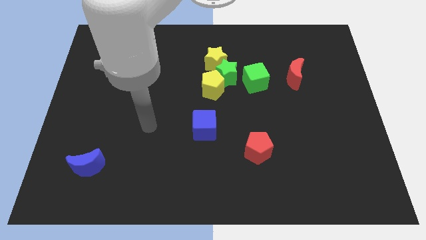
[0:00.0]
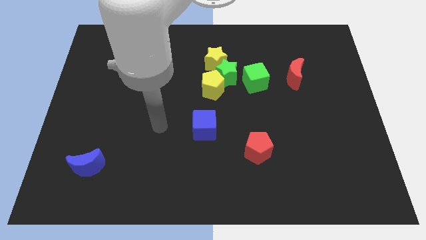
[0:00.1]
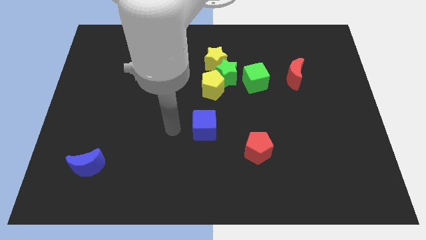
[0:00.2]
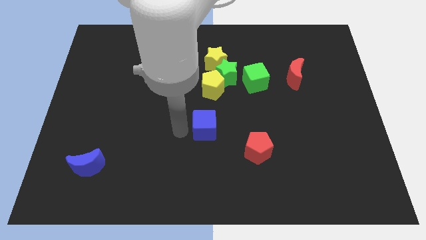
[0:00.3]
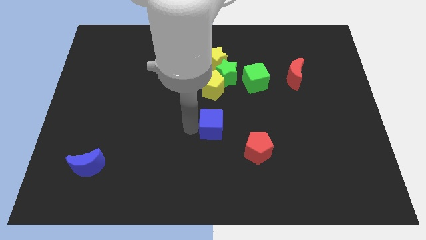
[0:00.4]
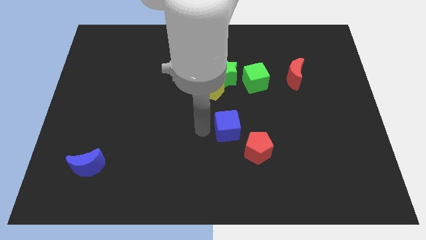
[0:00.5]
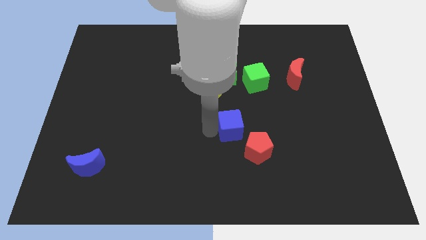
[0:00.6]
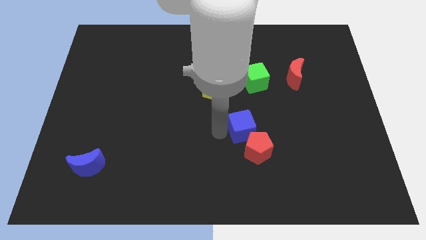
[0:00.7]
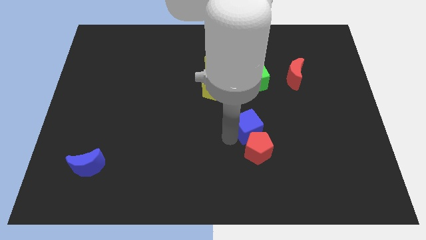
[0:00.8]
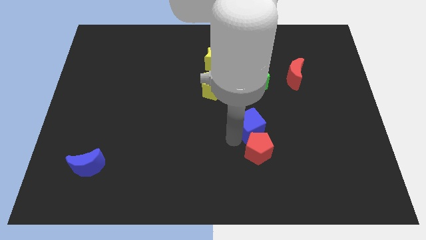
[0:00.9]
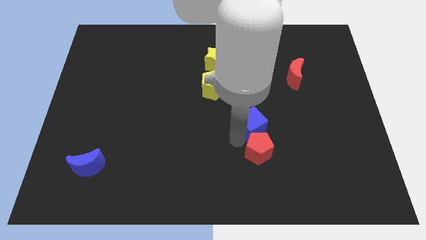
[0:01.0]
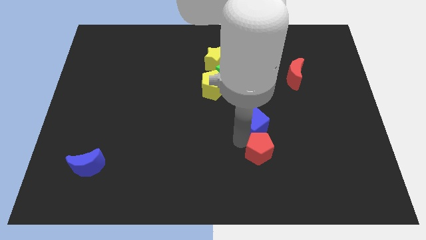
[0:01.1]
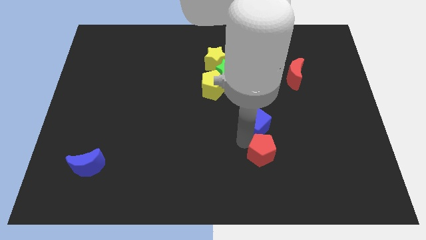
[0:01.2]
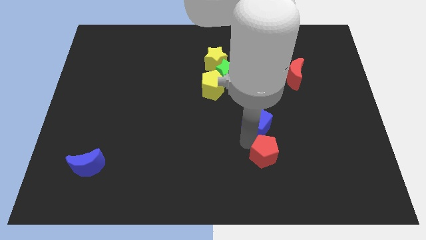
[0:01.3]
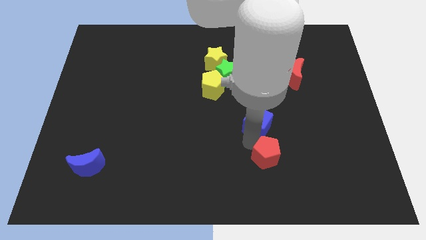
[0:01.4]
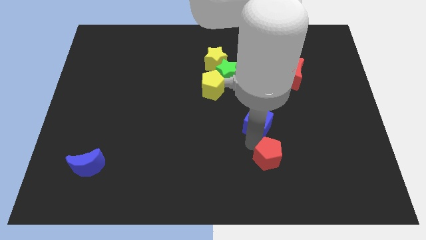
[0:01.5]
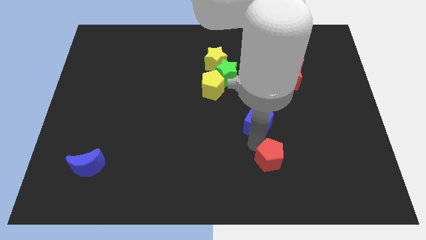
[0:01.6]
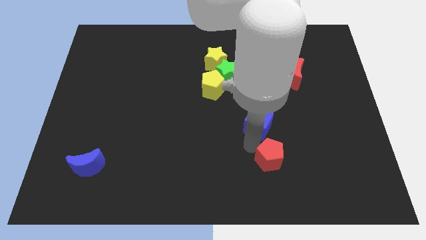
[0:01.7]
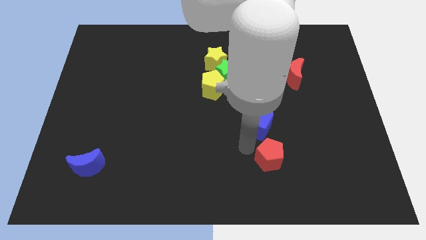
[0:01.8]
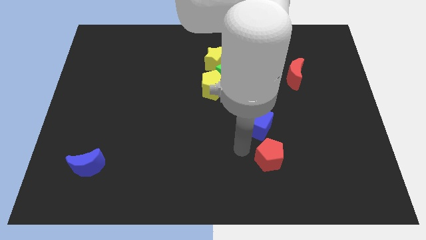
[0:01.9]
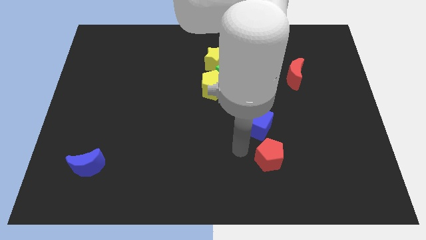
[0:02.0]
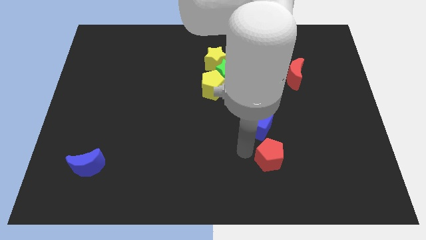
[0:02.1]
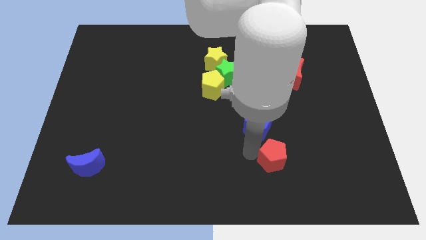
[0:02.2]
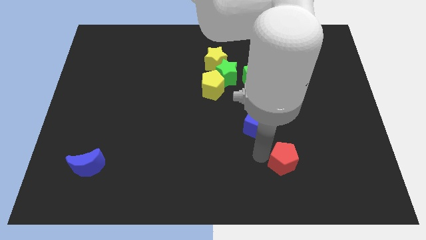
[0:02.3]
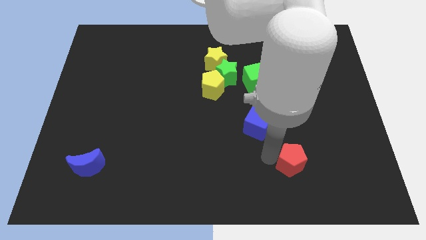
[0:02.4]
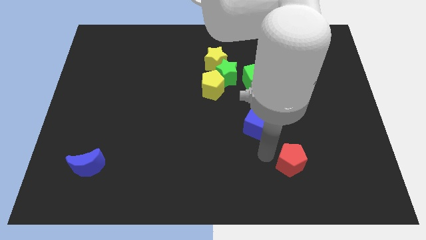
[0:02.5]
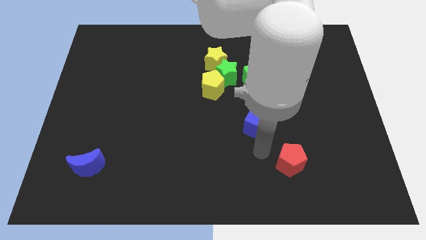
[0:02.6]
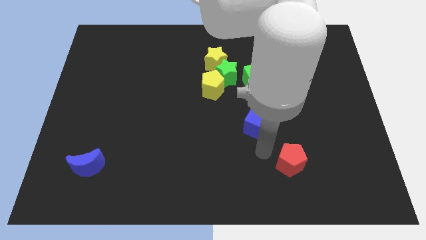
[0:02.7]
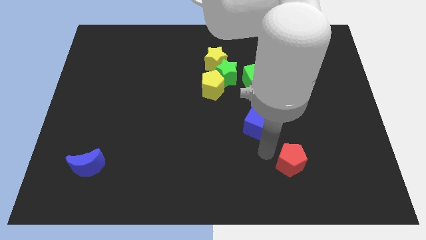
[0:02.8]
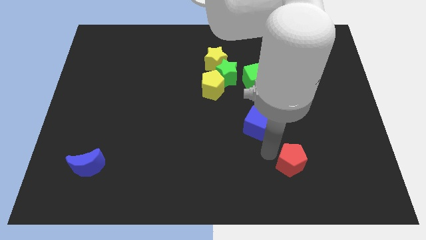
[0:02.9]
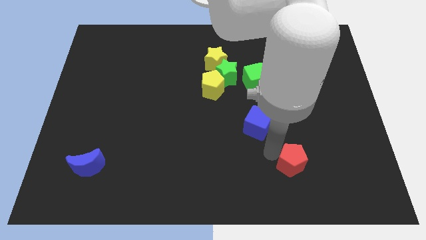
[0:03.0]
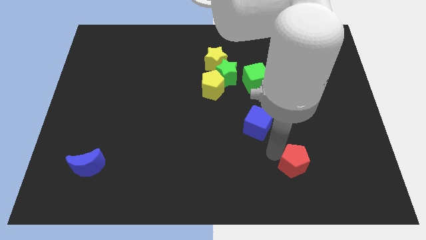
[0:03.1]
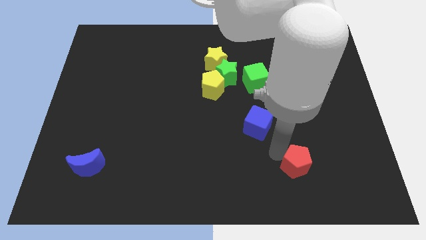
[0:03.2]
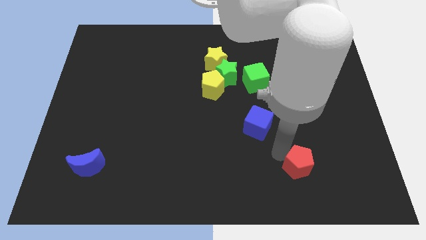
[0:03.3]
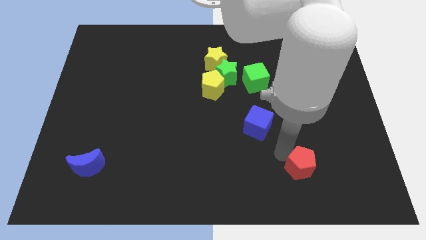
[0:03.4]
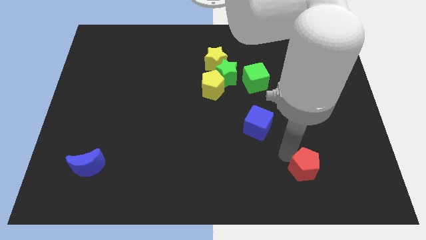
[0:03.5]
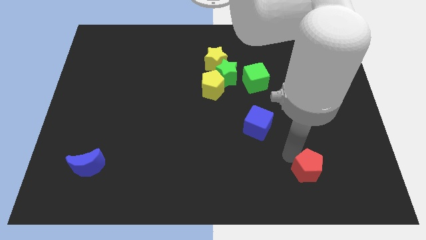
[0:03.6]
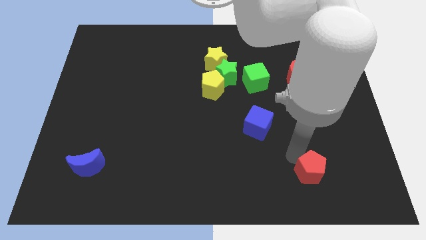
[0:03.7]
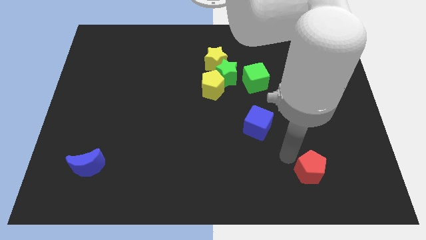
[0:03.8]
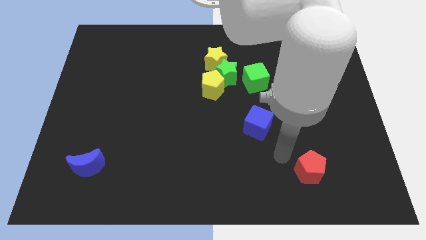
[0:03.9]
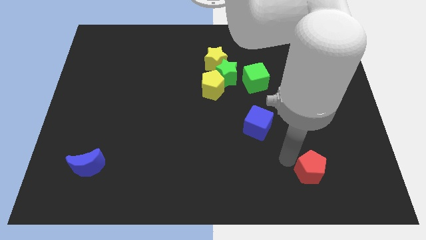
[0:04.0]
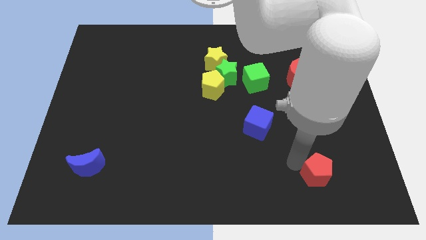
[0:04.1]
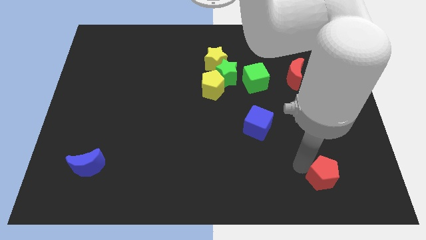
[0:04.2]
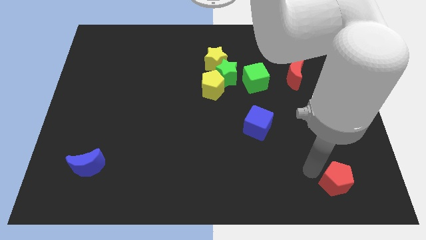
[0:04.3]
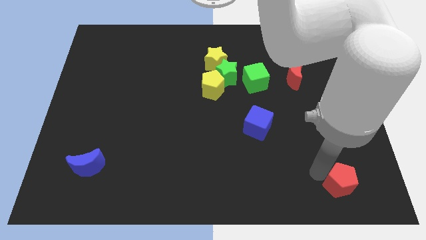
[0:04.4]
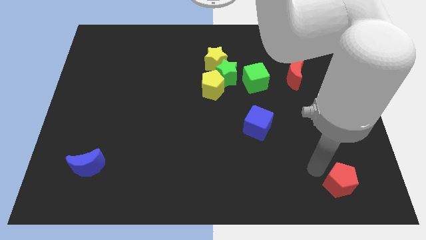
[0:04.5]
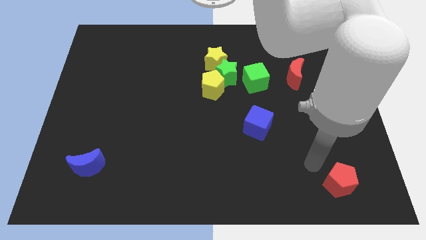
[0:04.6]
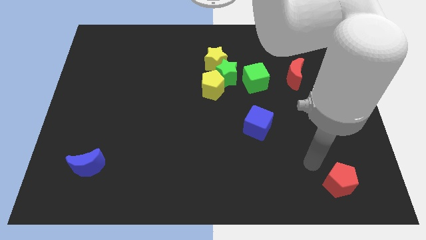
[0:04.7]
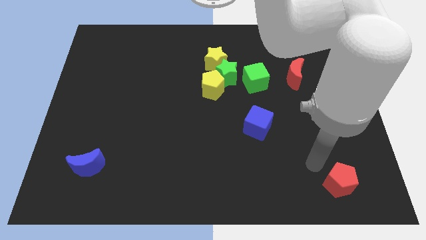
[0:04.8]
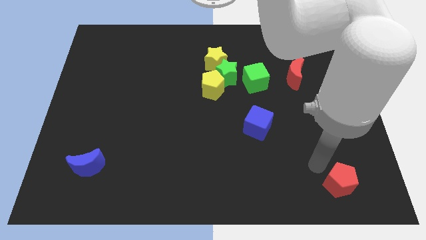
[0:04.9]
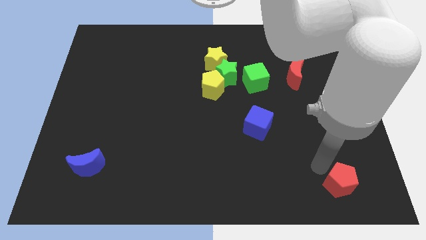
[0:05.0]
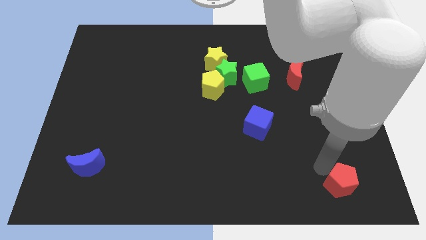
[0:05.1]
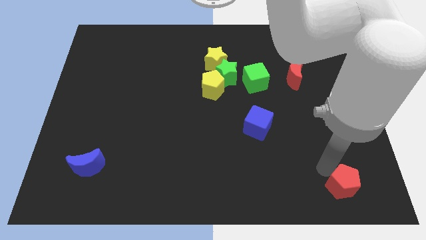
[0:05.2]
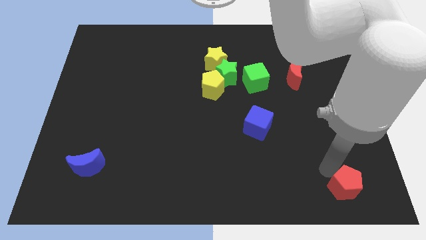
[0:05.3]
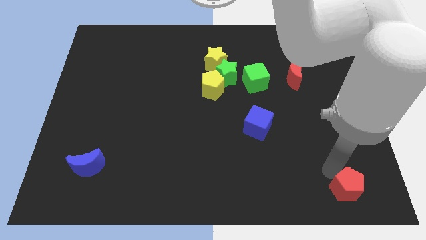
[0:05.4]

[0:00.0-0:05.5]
push the red pentagon to the lower right corner

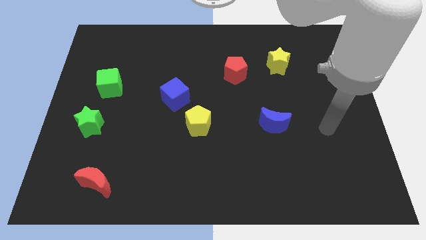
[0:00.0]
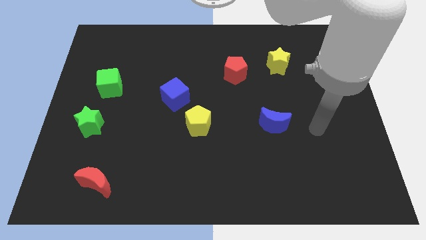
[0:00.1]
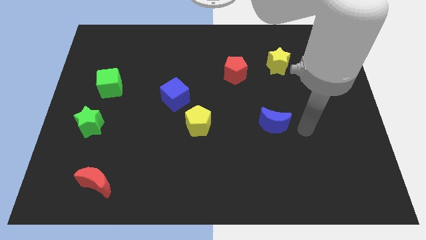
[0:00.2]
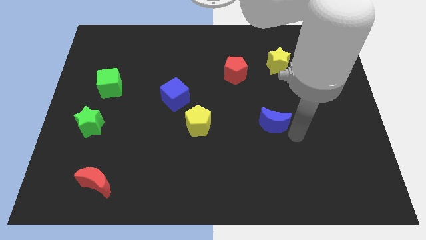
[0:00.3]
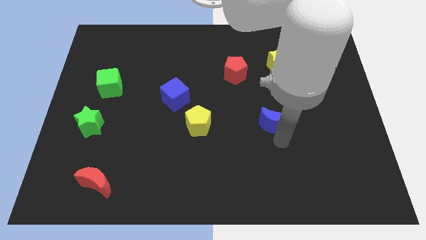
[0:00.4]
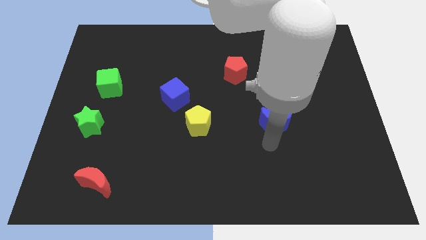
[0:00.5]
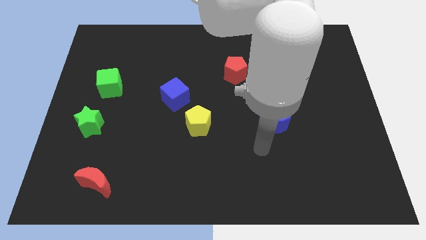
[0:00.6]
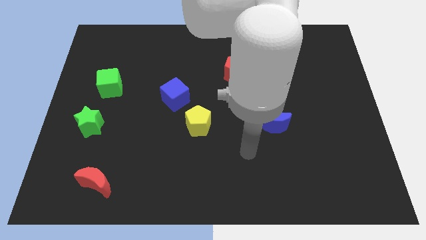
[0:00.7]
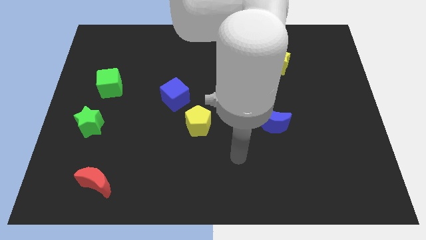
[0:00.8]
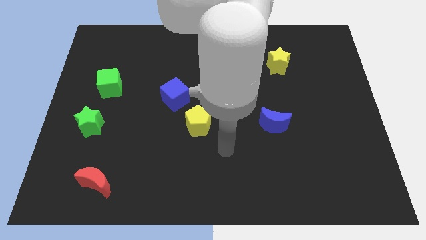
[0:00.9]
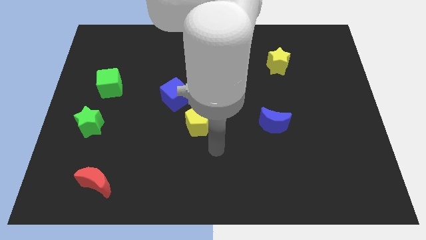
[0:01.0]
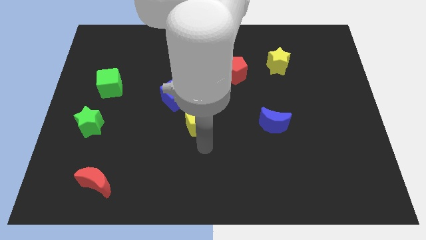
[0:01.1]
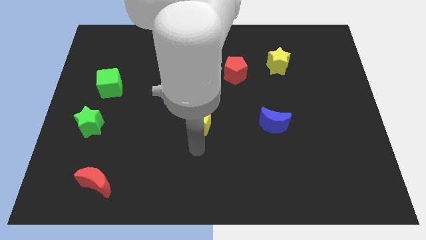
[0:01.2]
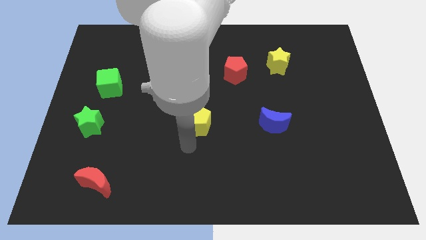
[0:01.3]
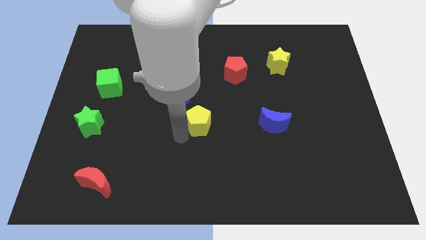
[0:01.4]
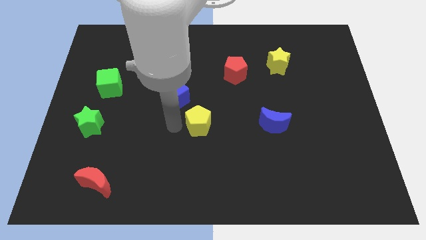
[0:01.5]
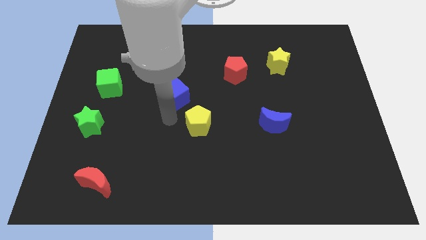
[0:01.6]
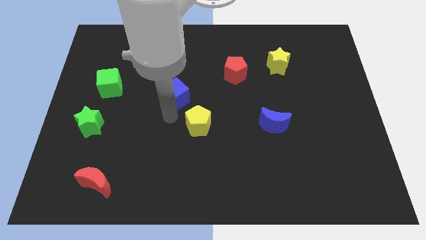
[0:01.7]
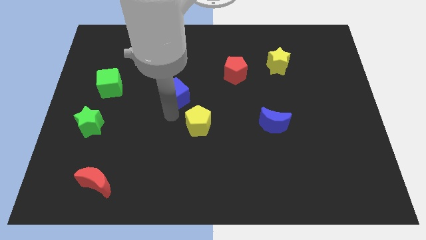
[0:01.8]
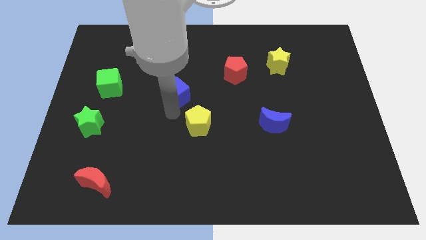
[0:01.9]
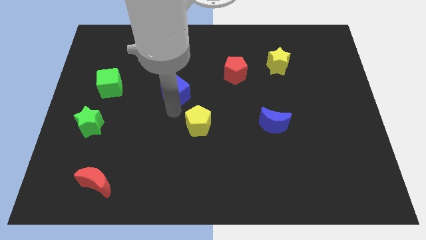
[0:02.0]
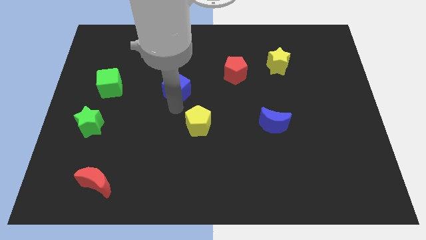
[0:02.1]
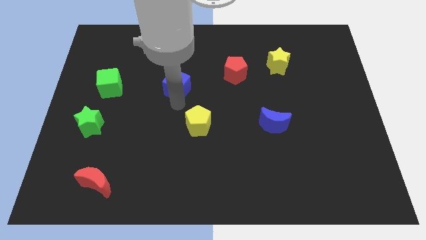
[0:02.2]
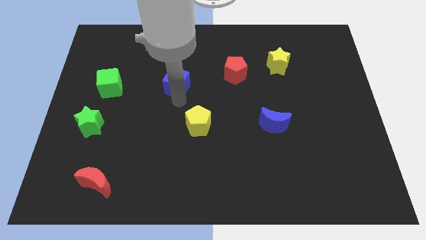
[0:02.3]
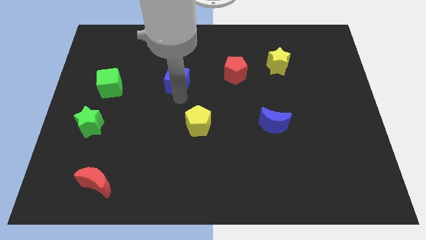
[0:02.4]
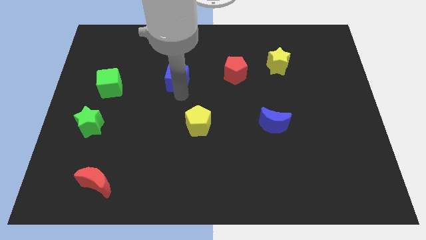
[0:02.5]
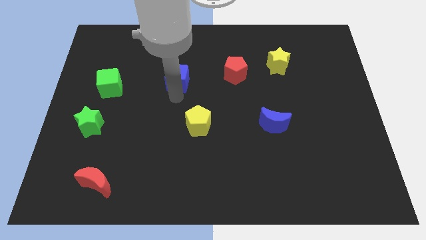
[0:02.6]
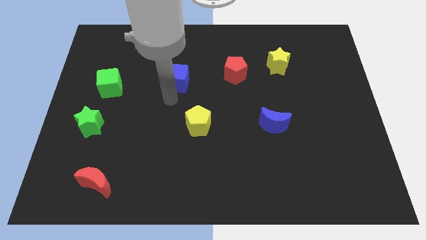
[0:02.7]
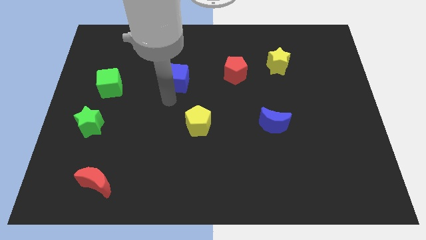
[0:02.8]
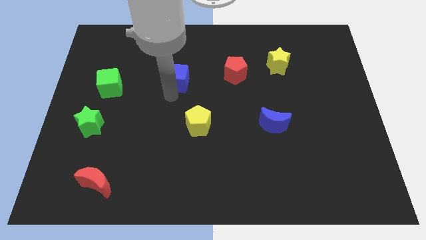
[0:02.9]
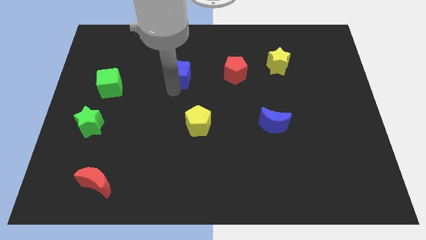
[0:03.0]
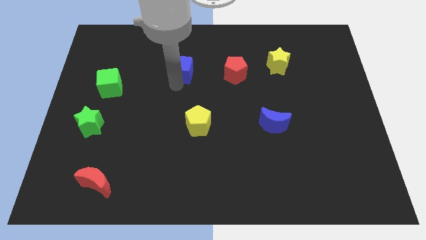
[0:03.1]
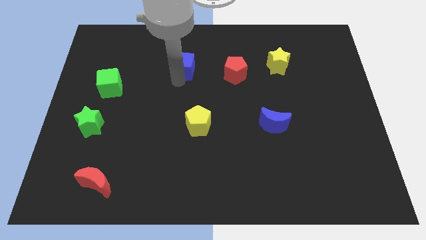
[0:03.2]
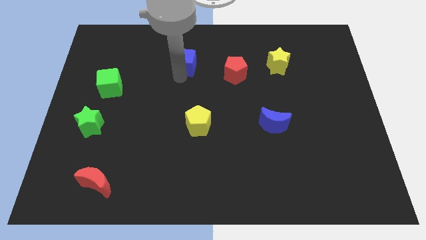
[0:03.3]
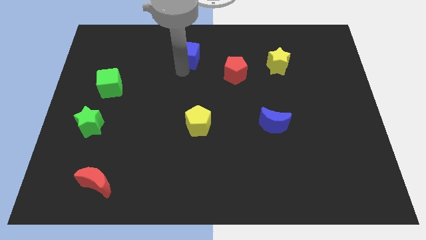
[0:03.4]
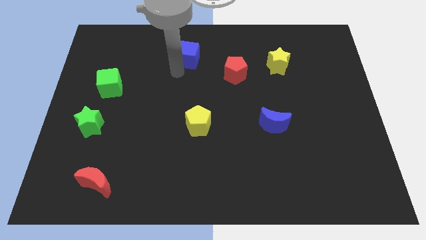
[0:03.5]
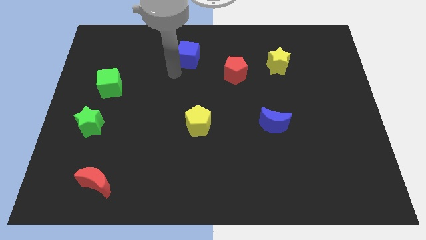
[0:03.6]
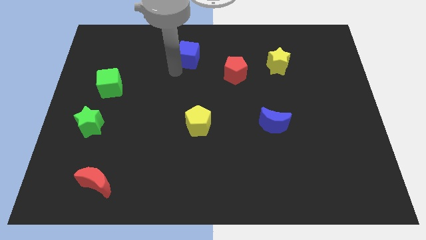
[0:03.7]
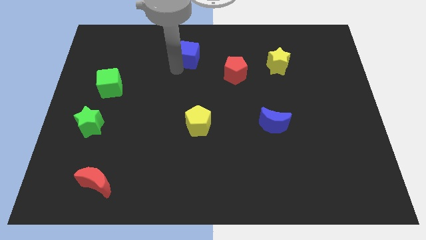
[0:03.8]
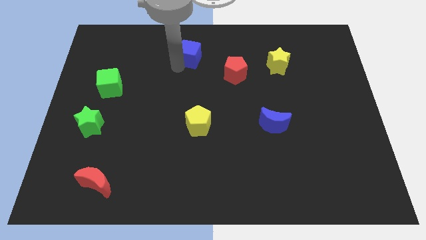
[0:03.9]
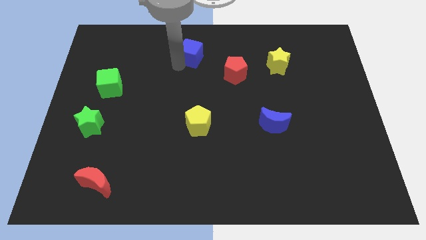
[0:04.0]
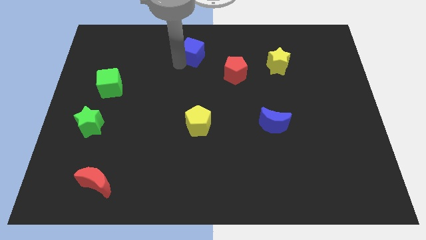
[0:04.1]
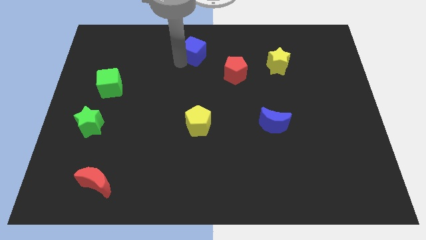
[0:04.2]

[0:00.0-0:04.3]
move the blue cube to the towards your base
